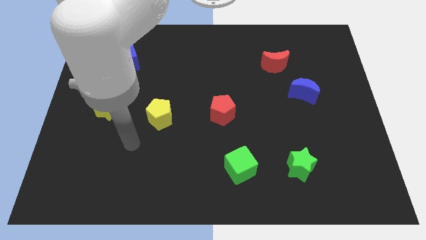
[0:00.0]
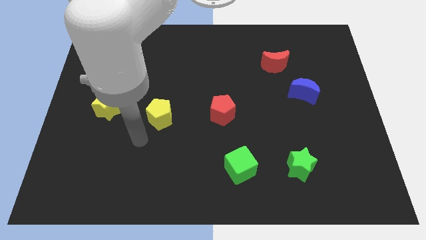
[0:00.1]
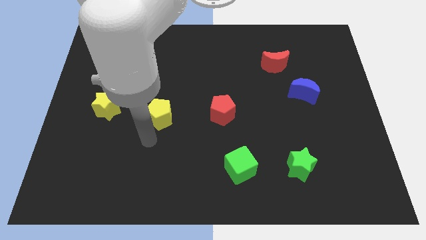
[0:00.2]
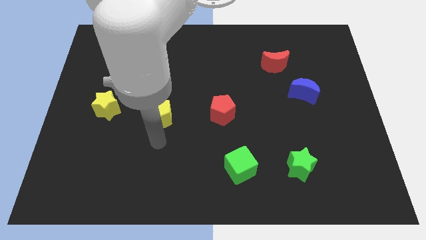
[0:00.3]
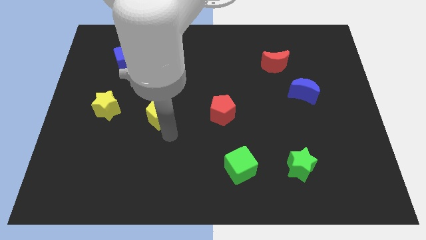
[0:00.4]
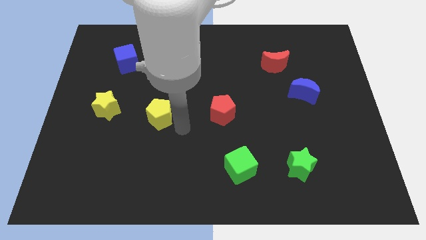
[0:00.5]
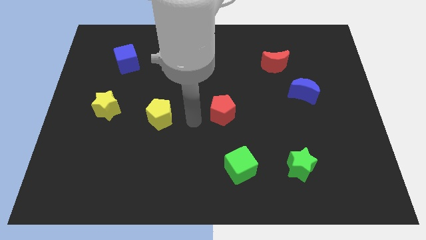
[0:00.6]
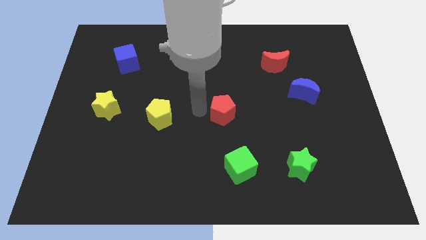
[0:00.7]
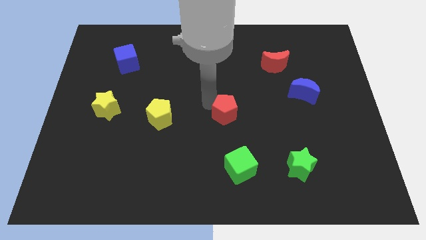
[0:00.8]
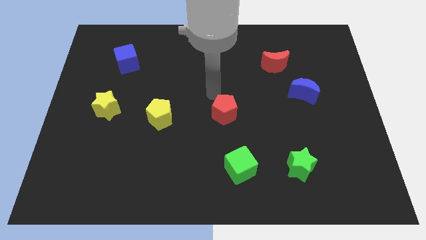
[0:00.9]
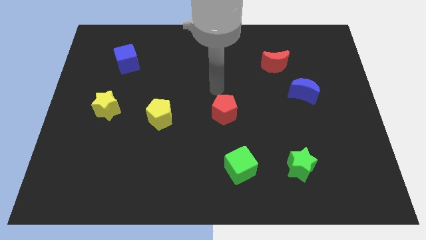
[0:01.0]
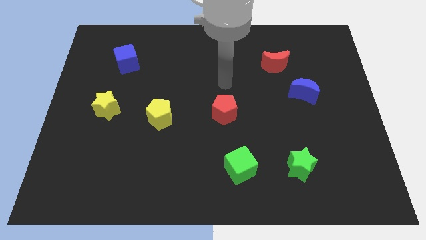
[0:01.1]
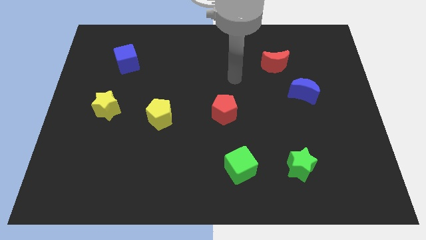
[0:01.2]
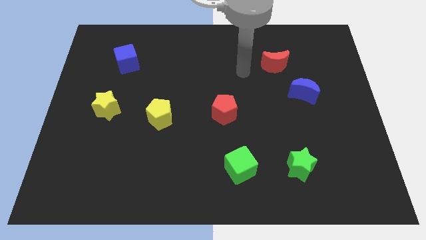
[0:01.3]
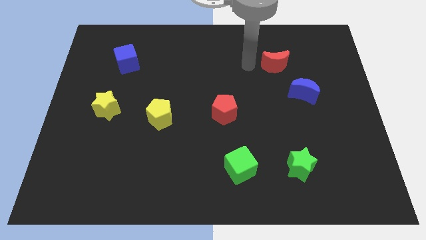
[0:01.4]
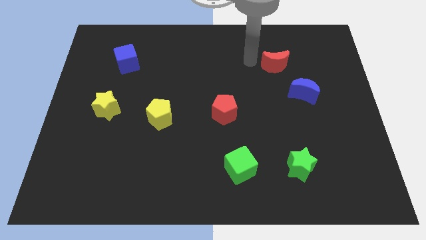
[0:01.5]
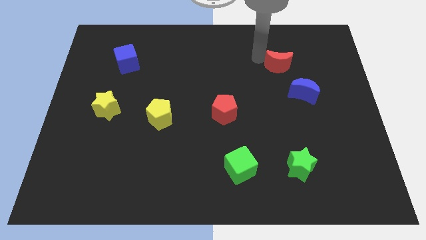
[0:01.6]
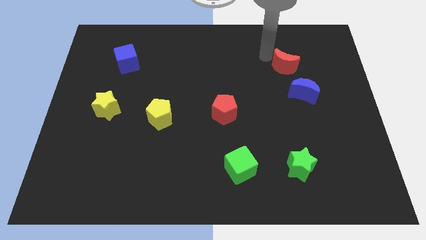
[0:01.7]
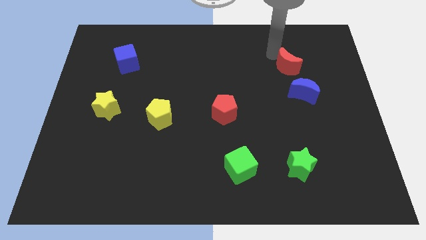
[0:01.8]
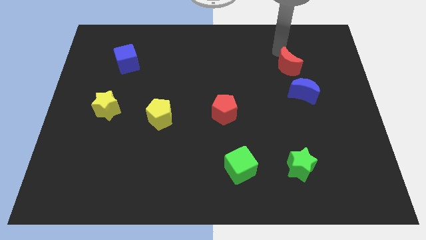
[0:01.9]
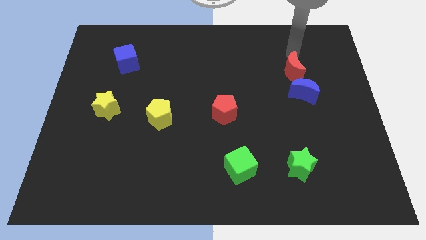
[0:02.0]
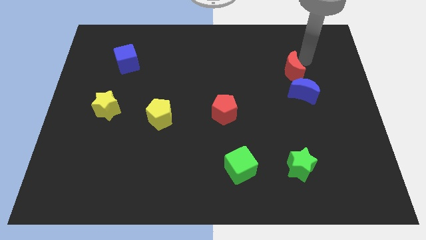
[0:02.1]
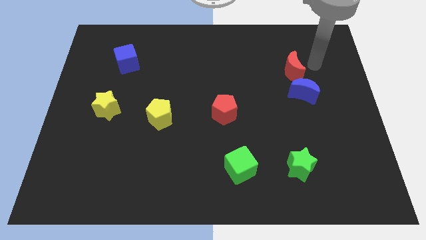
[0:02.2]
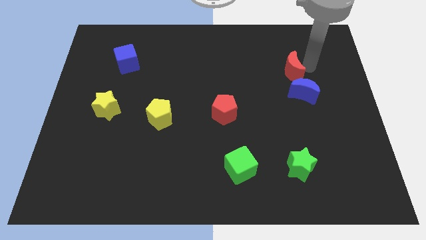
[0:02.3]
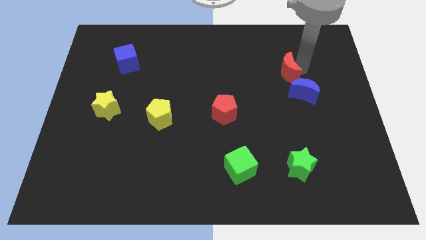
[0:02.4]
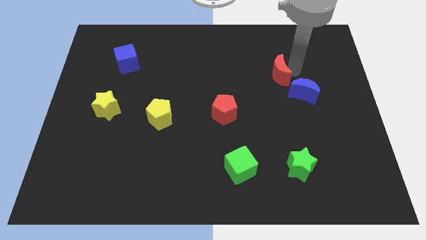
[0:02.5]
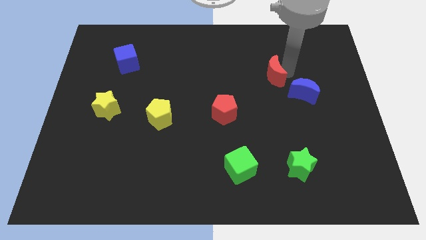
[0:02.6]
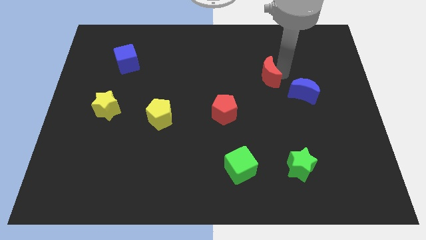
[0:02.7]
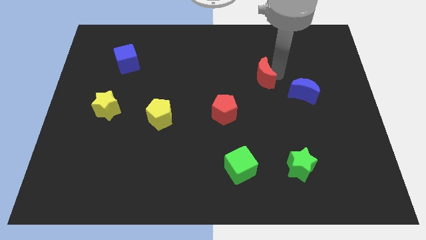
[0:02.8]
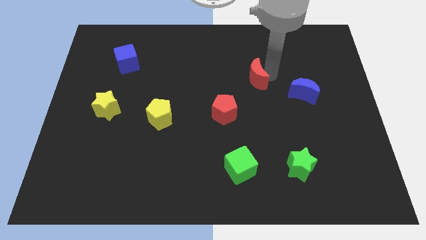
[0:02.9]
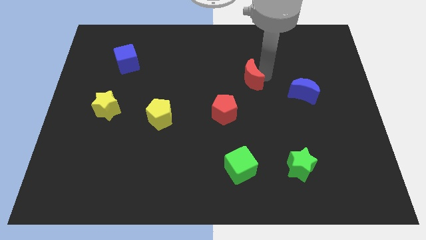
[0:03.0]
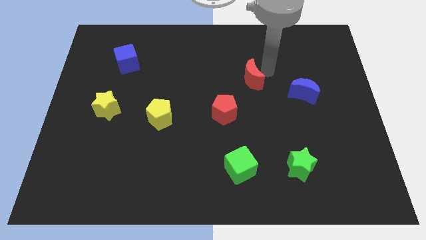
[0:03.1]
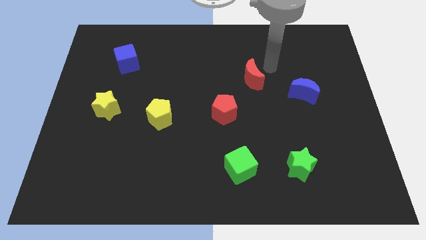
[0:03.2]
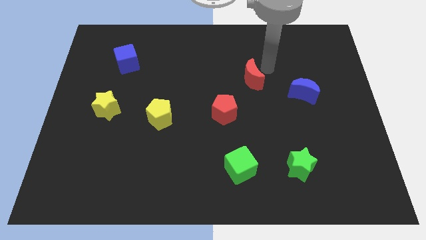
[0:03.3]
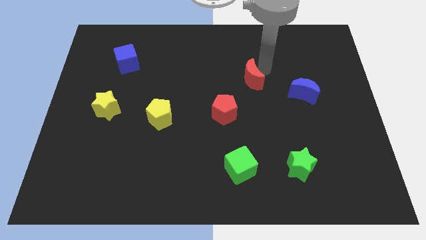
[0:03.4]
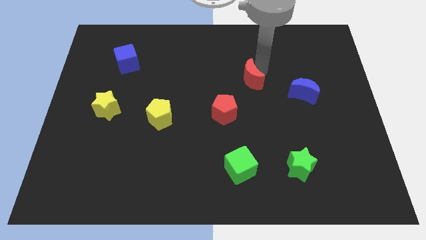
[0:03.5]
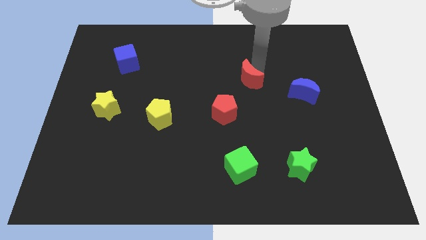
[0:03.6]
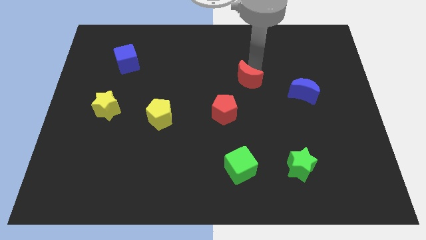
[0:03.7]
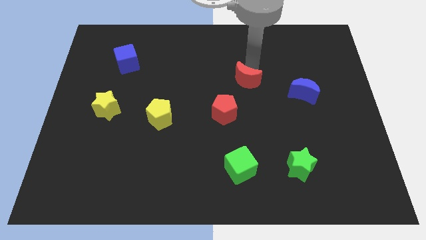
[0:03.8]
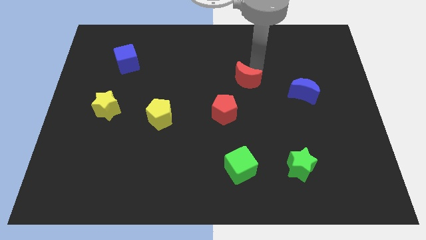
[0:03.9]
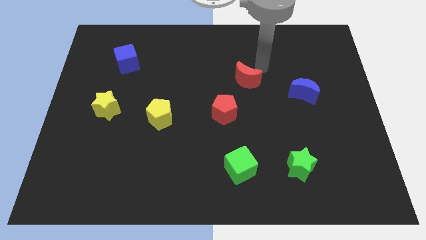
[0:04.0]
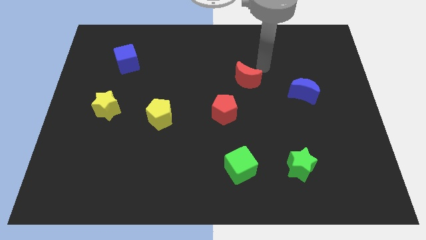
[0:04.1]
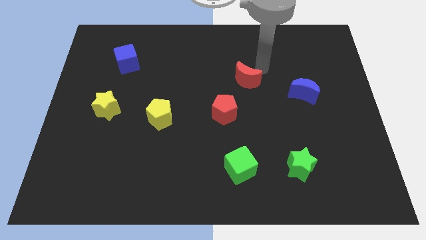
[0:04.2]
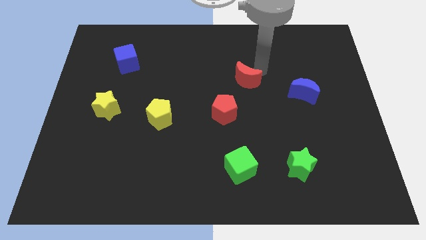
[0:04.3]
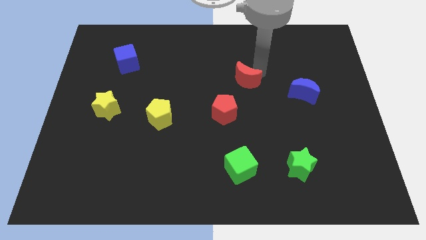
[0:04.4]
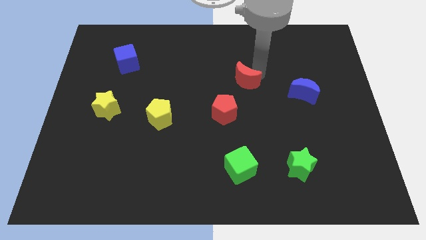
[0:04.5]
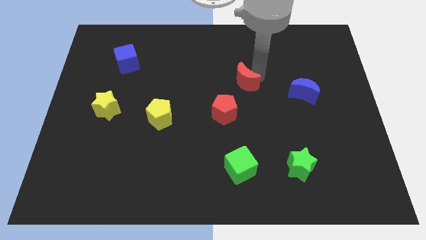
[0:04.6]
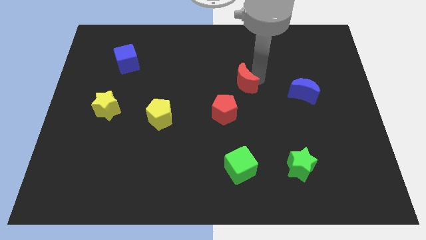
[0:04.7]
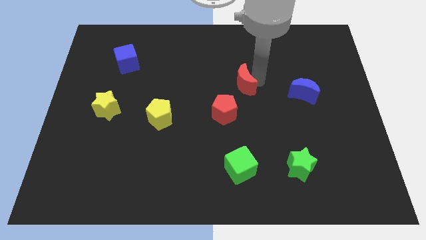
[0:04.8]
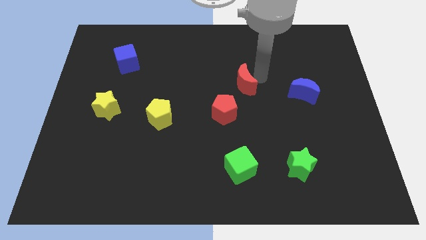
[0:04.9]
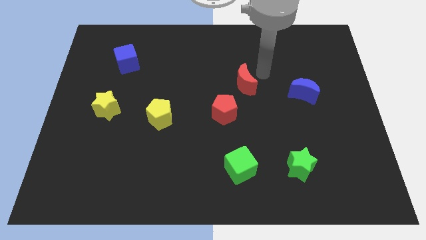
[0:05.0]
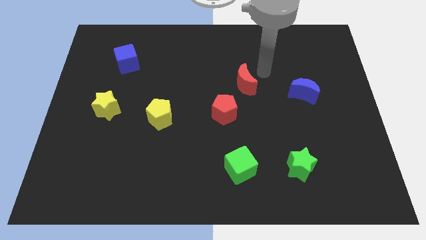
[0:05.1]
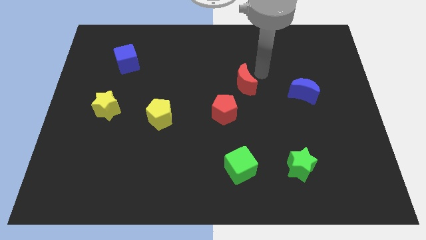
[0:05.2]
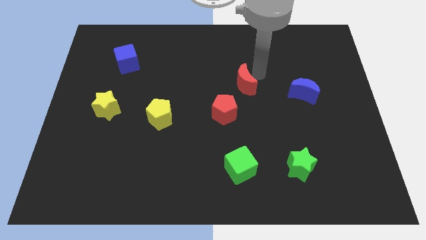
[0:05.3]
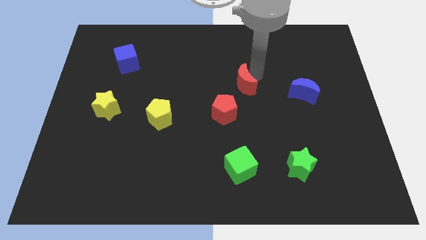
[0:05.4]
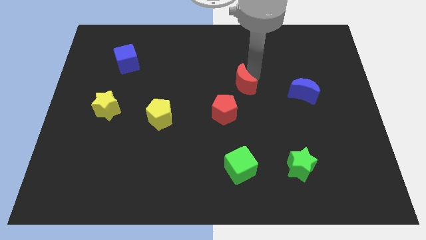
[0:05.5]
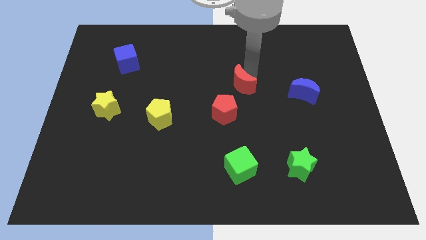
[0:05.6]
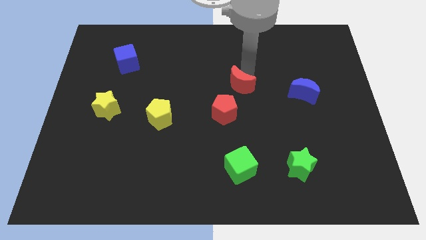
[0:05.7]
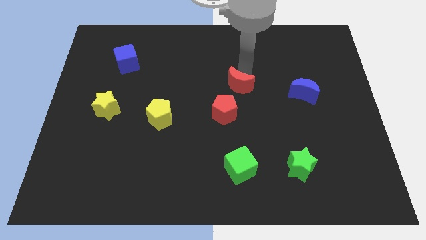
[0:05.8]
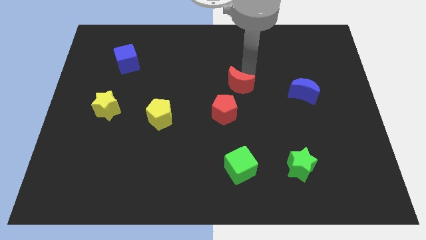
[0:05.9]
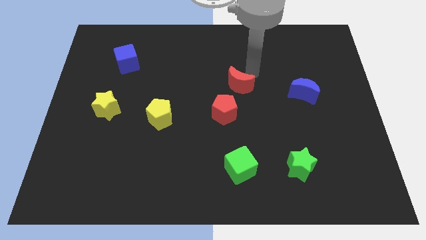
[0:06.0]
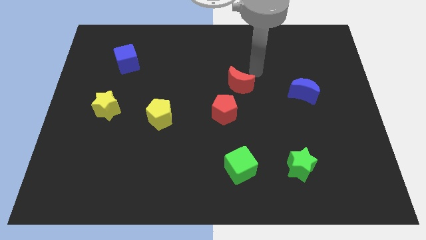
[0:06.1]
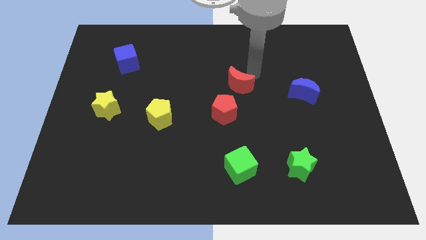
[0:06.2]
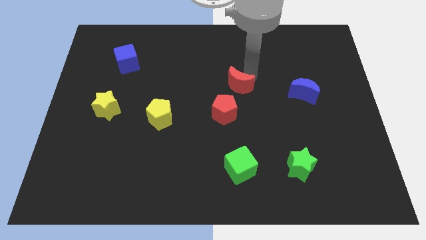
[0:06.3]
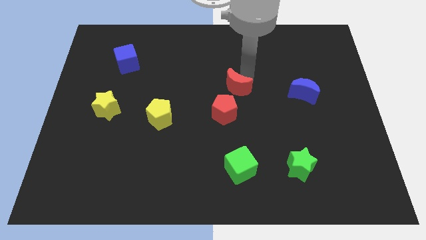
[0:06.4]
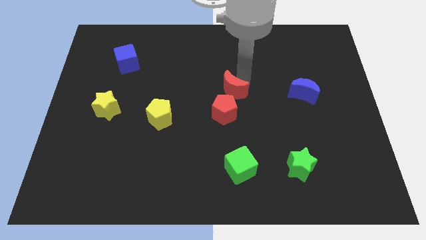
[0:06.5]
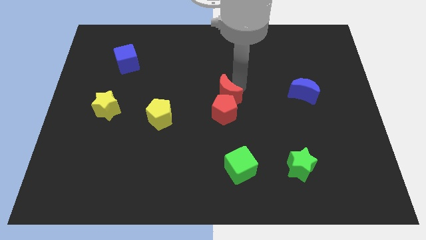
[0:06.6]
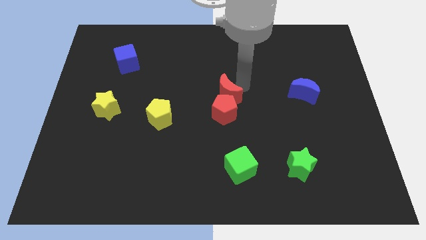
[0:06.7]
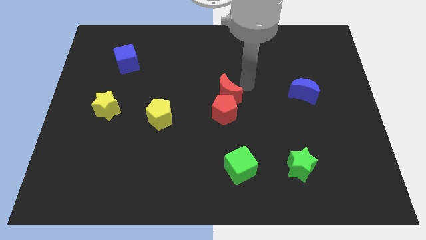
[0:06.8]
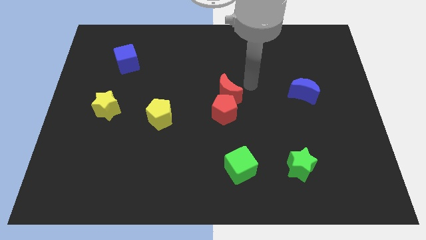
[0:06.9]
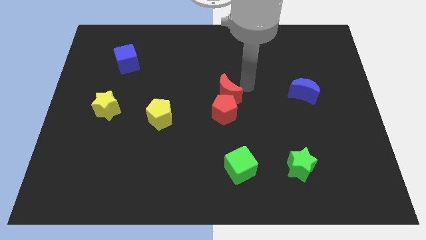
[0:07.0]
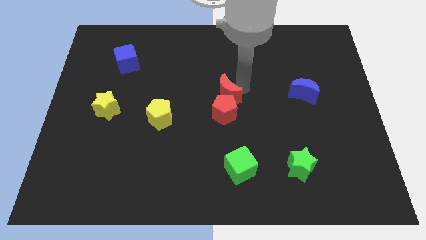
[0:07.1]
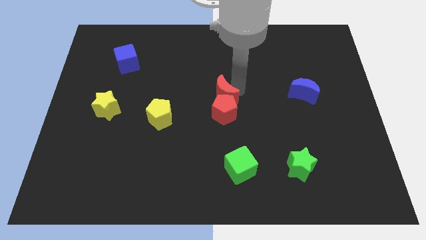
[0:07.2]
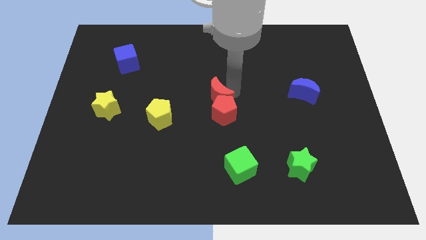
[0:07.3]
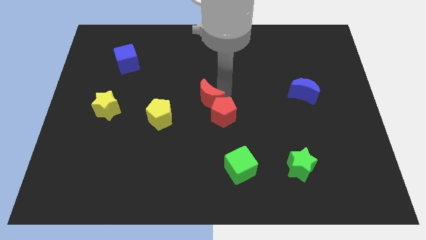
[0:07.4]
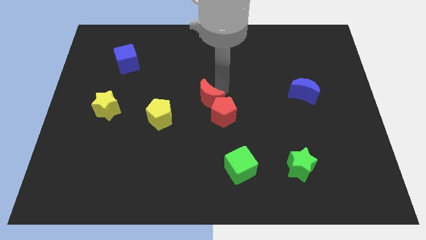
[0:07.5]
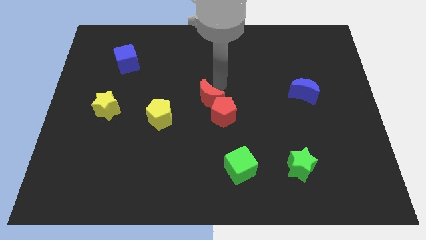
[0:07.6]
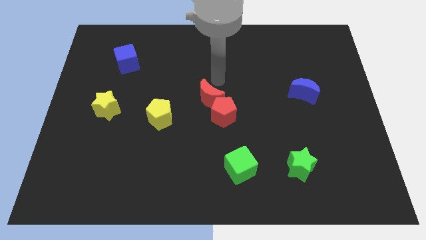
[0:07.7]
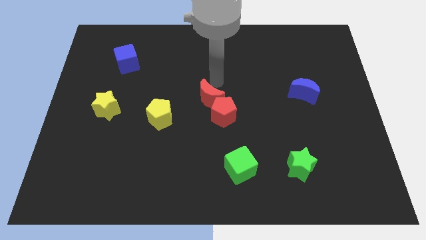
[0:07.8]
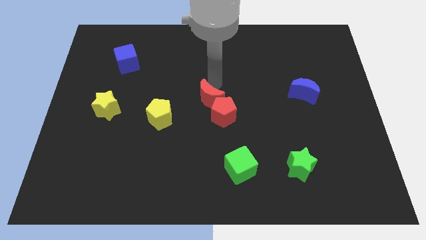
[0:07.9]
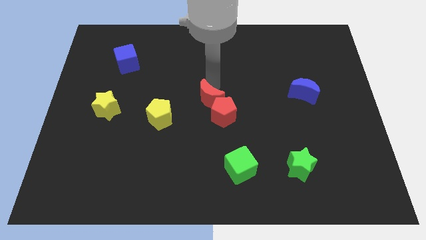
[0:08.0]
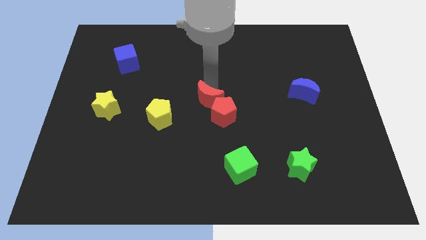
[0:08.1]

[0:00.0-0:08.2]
push the red moon down and to the left
